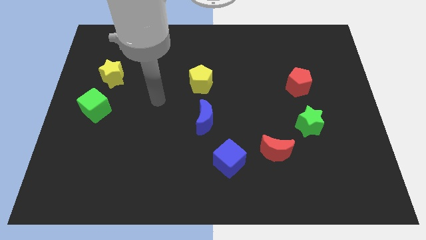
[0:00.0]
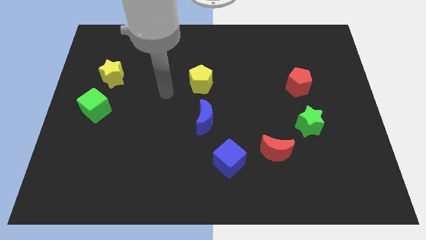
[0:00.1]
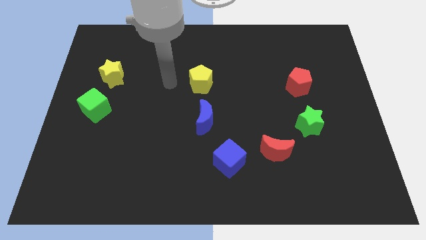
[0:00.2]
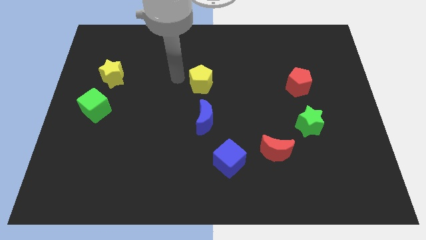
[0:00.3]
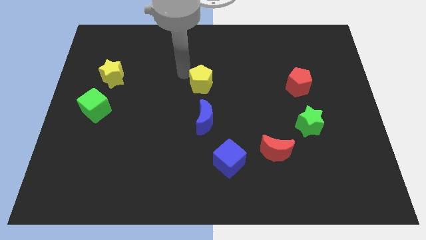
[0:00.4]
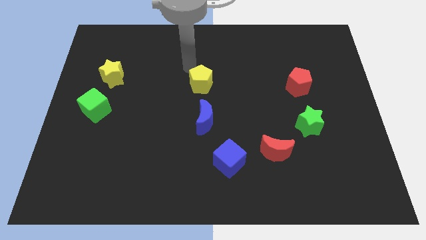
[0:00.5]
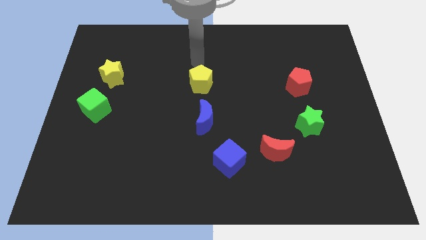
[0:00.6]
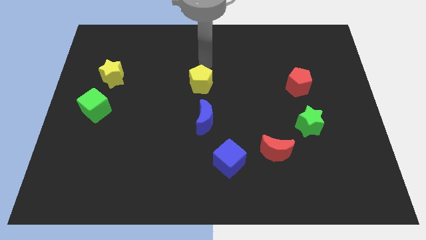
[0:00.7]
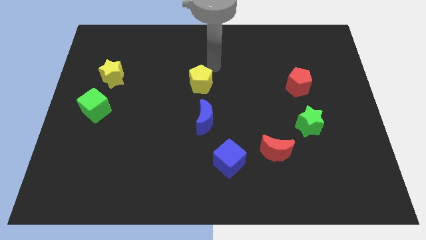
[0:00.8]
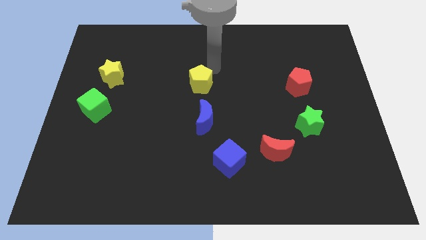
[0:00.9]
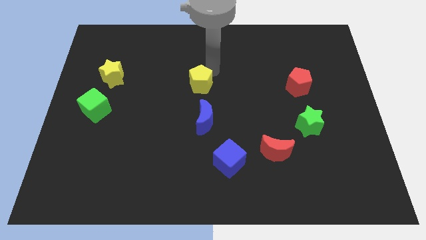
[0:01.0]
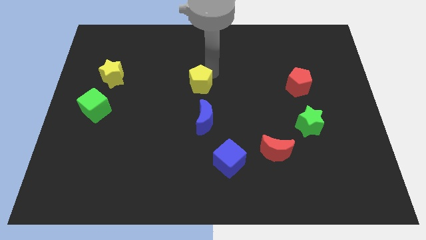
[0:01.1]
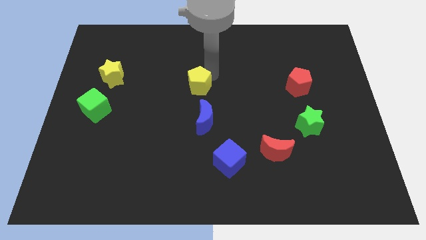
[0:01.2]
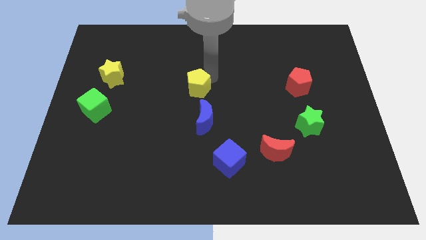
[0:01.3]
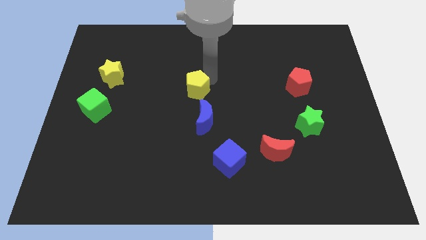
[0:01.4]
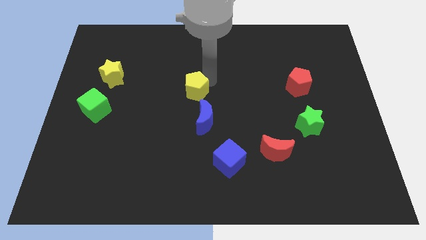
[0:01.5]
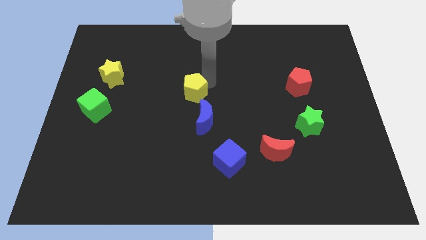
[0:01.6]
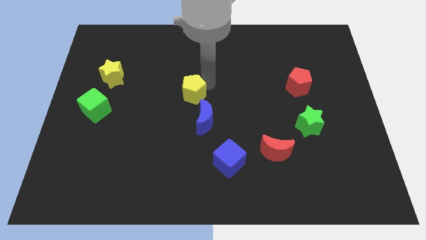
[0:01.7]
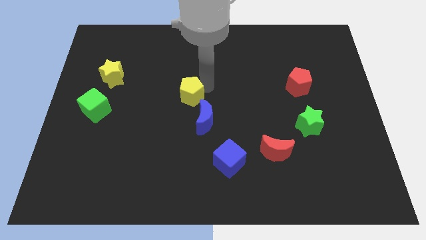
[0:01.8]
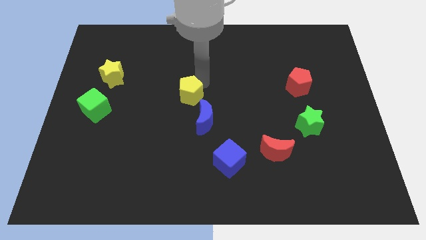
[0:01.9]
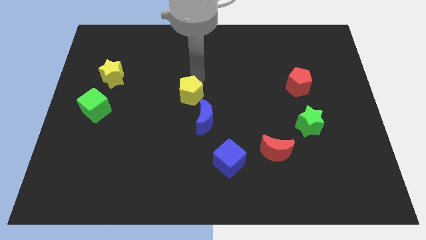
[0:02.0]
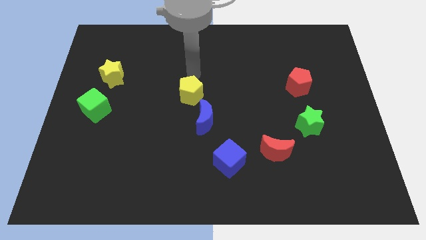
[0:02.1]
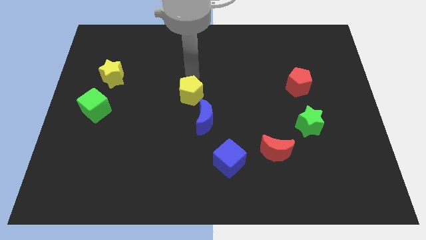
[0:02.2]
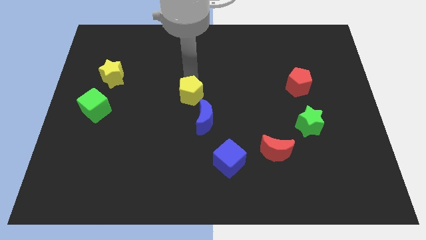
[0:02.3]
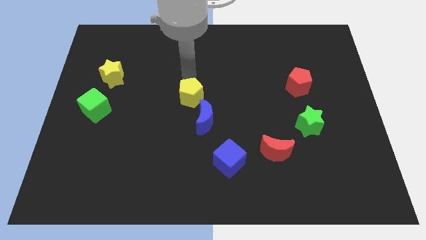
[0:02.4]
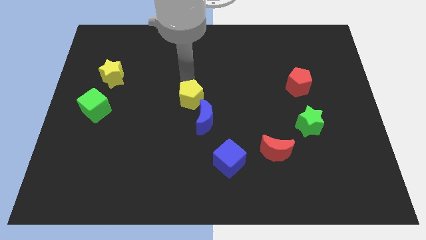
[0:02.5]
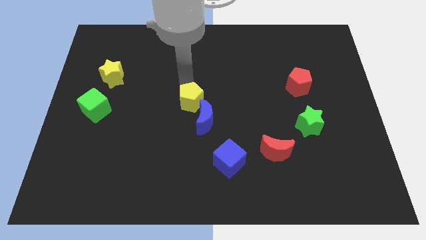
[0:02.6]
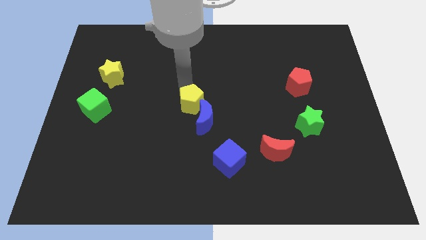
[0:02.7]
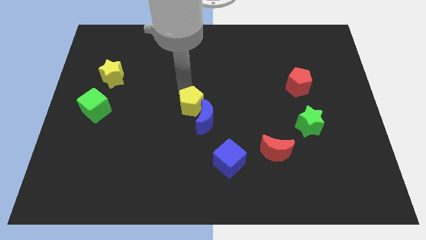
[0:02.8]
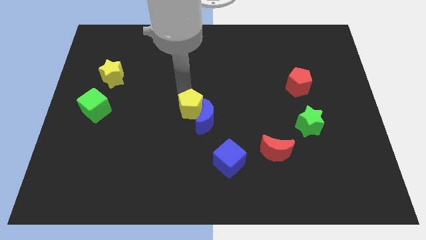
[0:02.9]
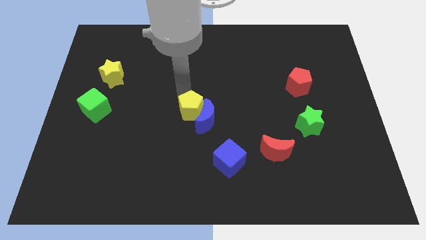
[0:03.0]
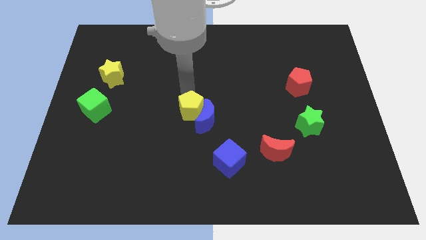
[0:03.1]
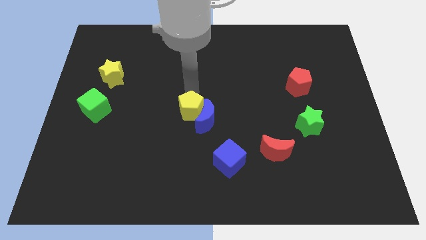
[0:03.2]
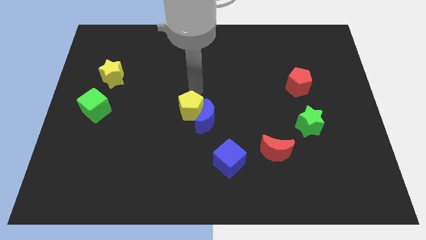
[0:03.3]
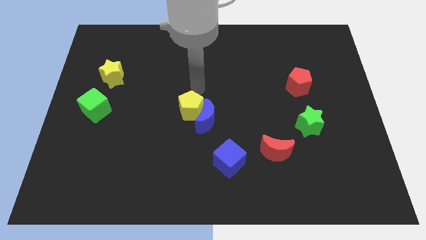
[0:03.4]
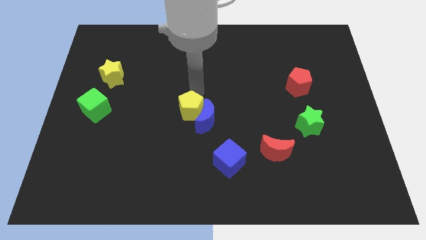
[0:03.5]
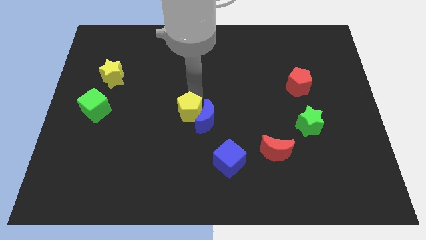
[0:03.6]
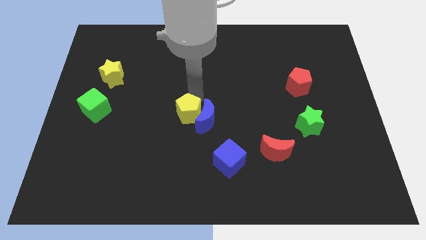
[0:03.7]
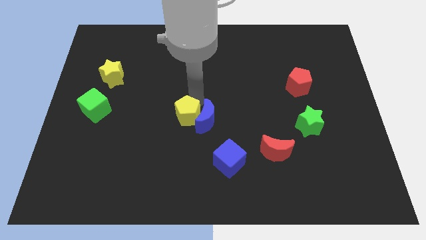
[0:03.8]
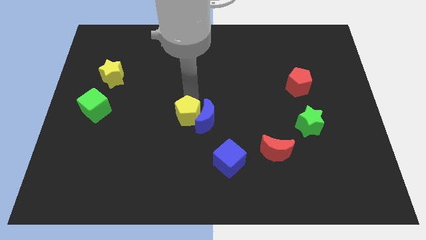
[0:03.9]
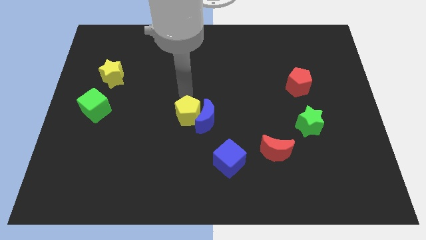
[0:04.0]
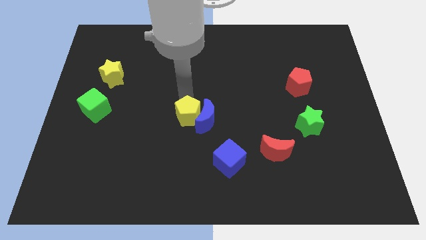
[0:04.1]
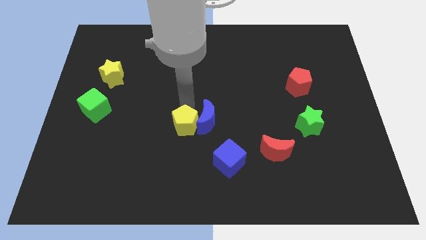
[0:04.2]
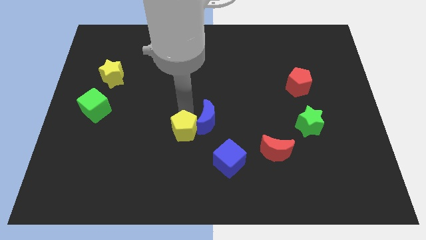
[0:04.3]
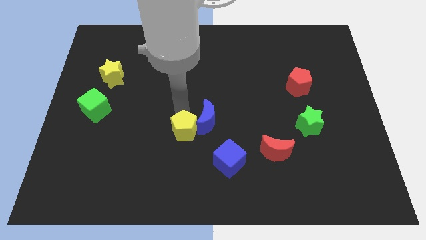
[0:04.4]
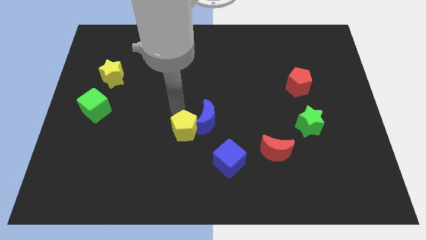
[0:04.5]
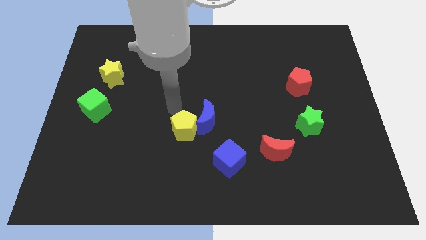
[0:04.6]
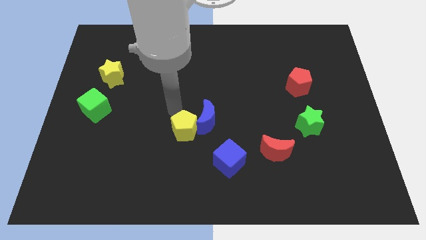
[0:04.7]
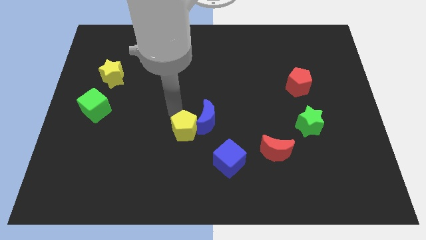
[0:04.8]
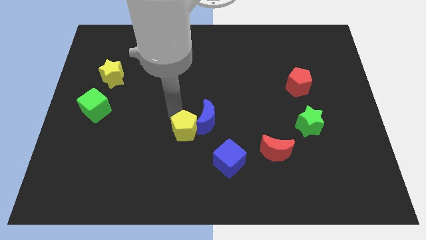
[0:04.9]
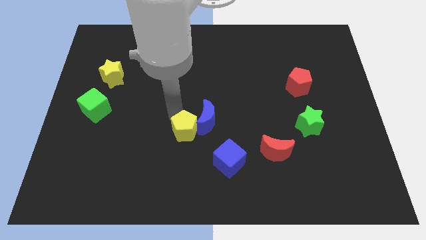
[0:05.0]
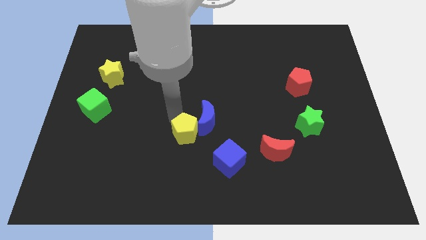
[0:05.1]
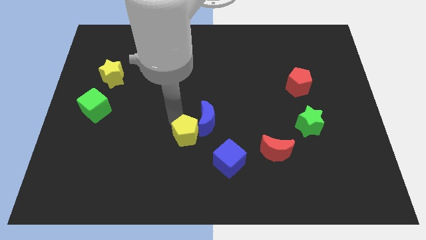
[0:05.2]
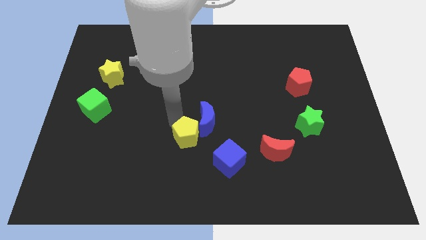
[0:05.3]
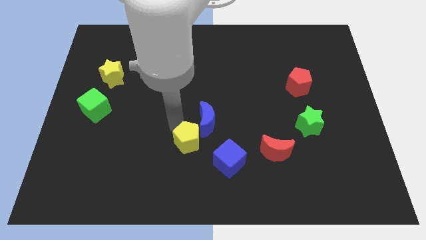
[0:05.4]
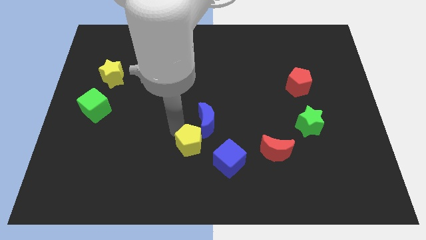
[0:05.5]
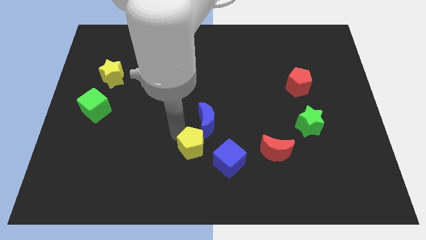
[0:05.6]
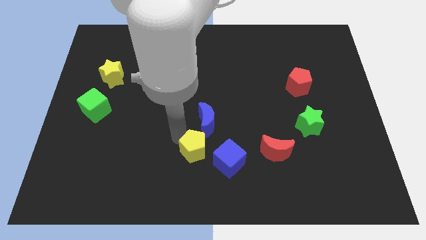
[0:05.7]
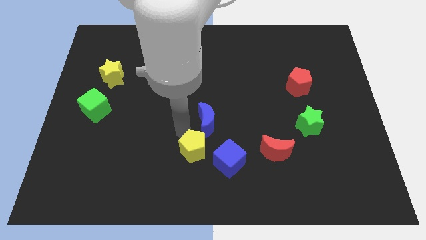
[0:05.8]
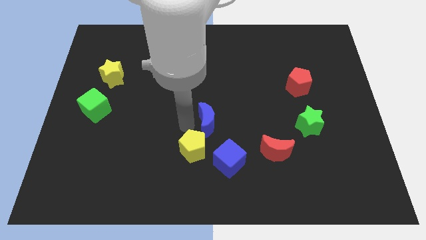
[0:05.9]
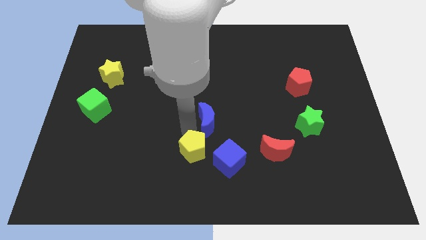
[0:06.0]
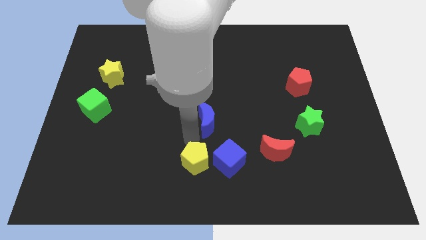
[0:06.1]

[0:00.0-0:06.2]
slide the yellow pentagon to the bottom
